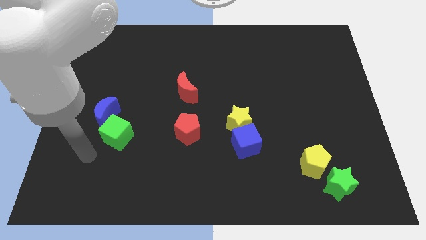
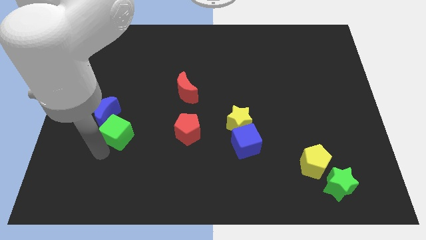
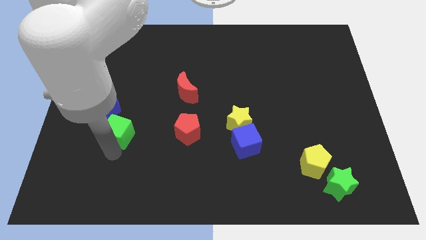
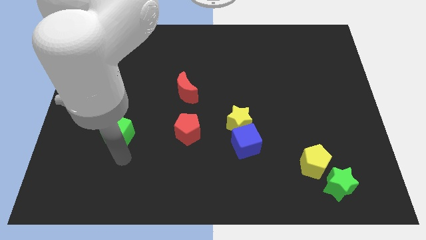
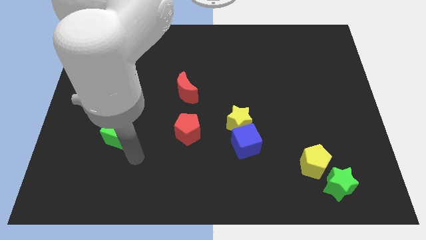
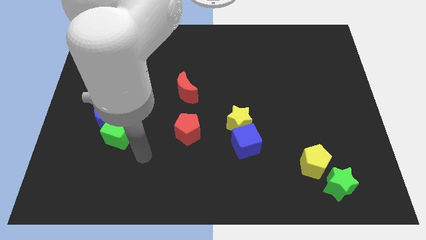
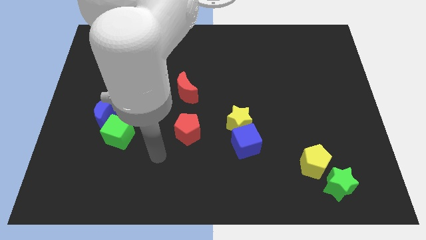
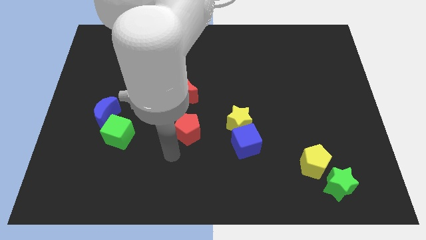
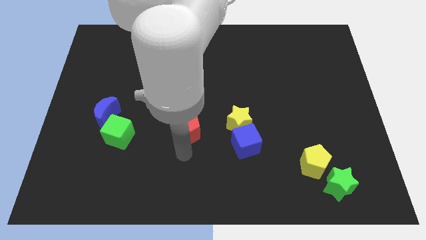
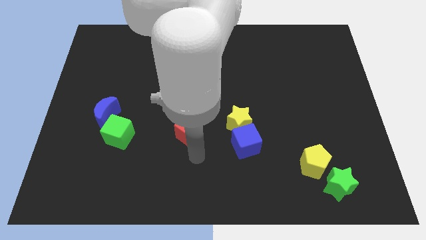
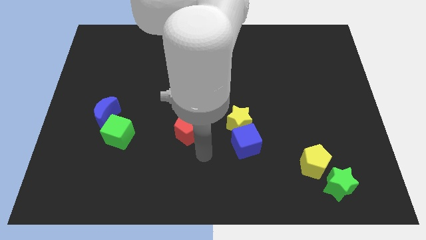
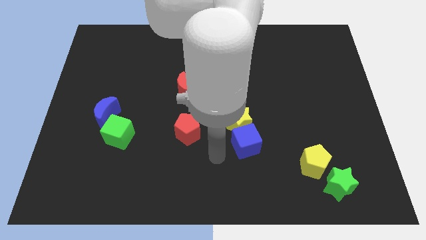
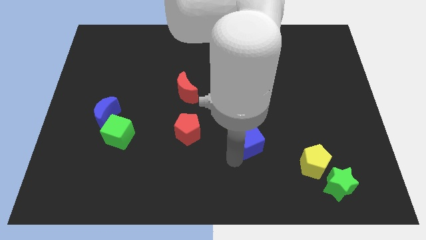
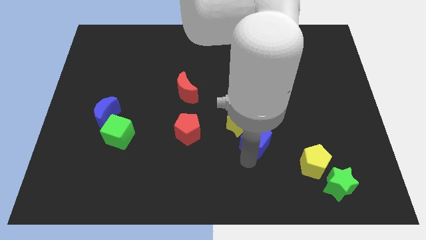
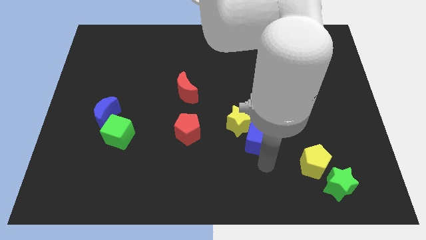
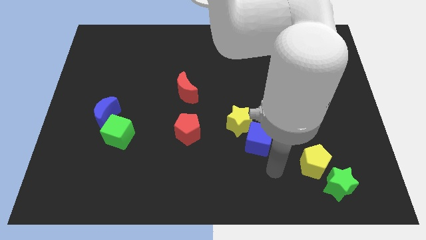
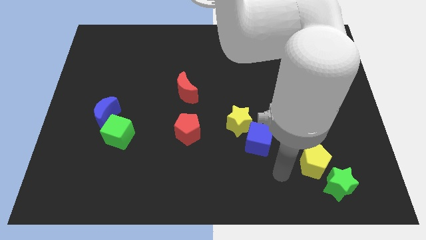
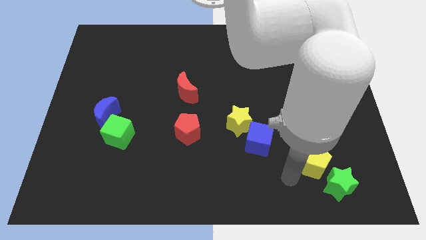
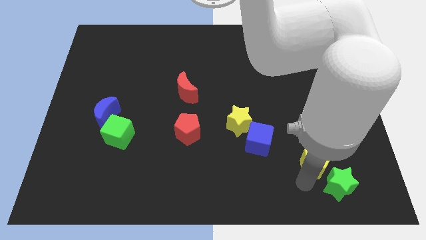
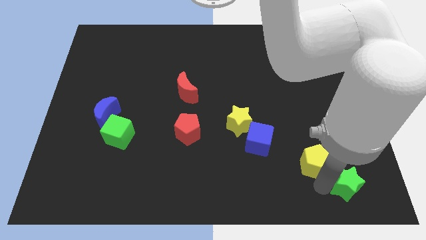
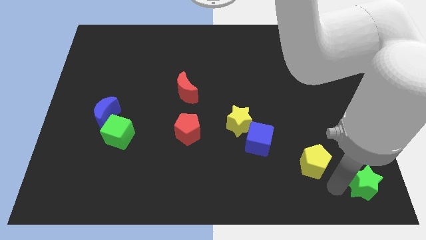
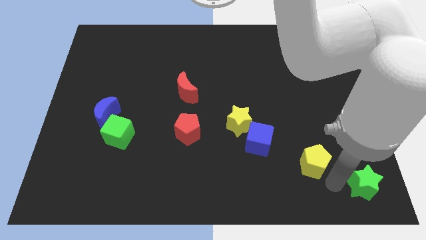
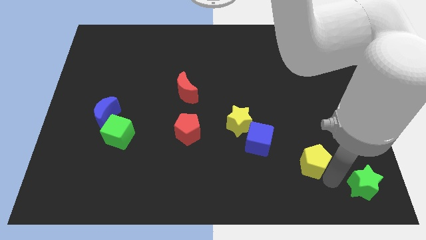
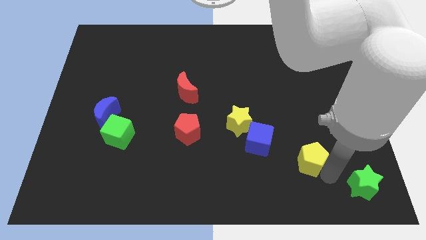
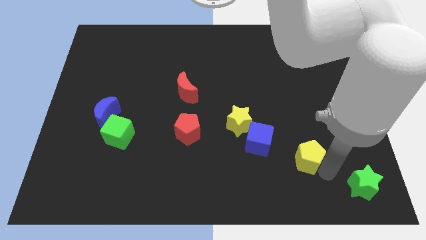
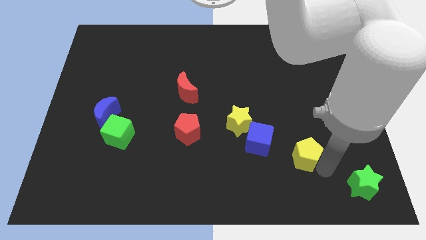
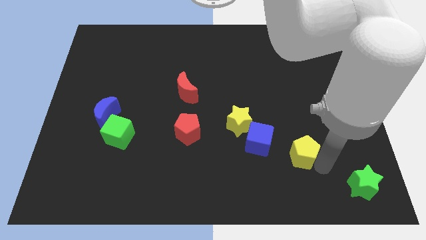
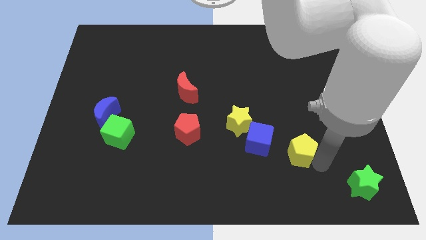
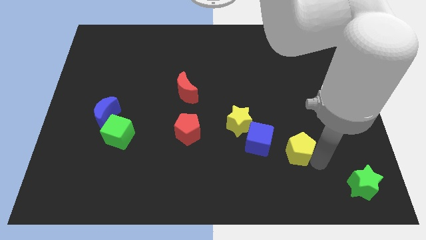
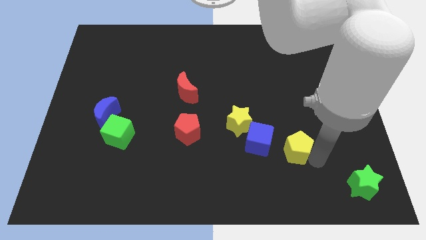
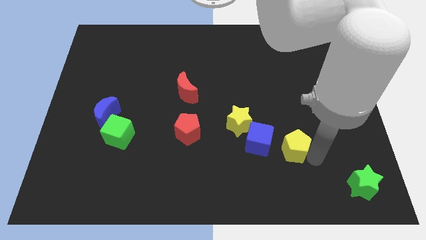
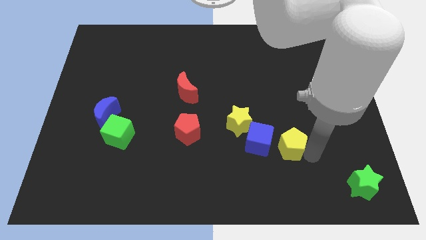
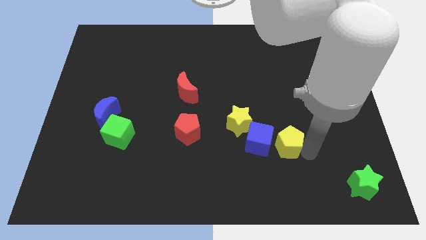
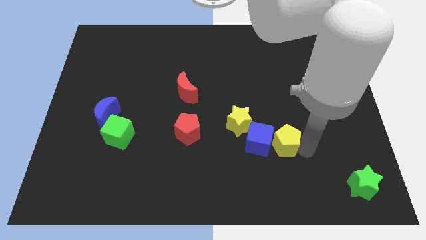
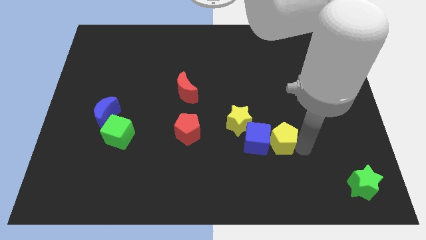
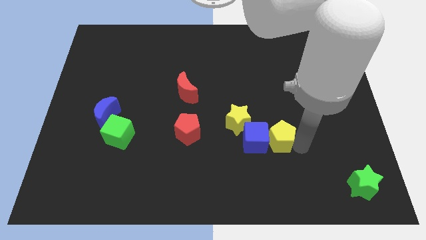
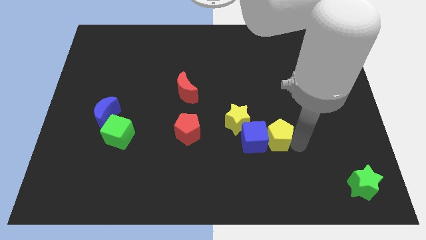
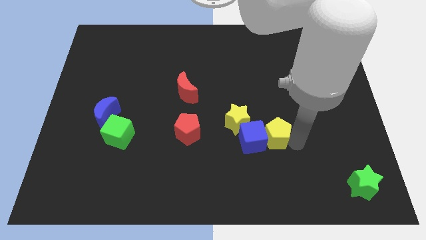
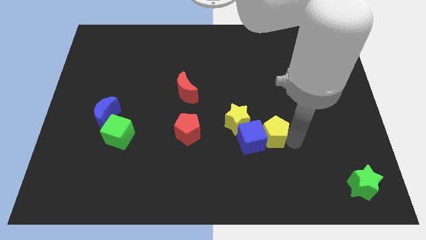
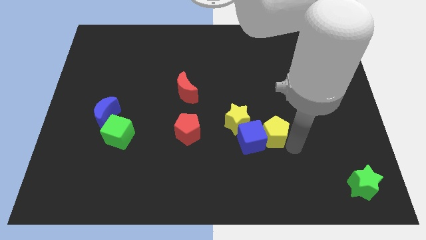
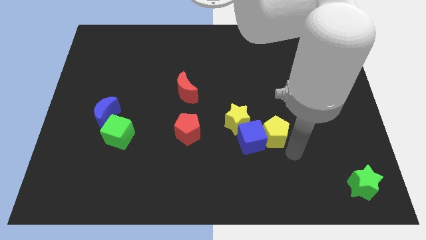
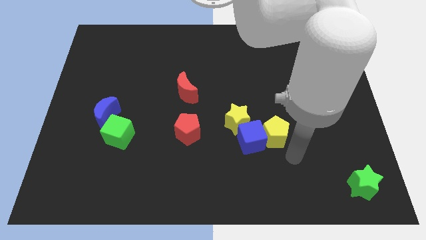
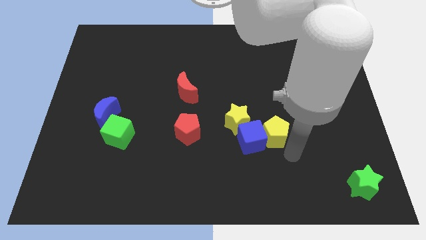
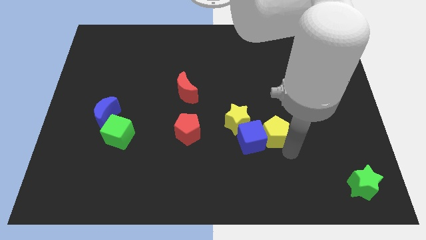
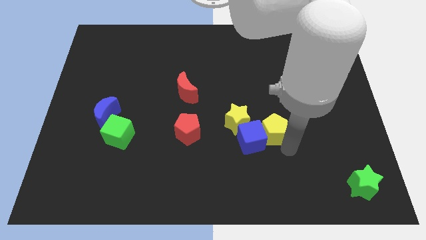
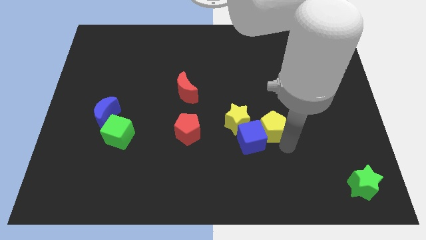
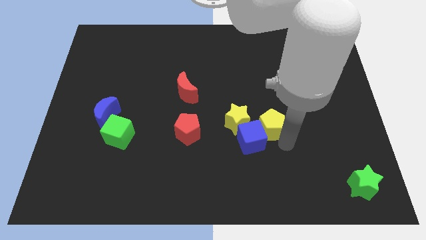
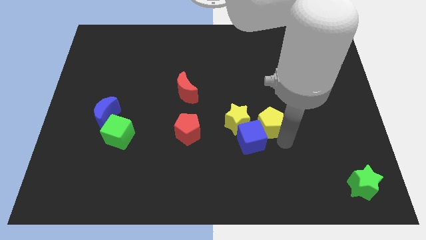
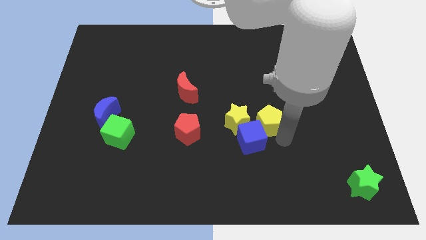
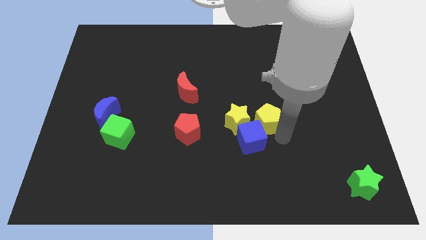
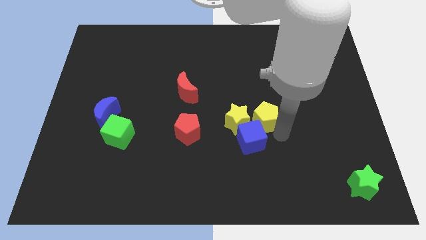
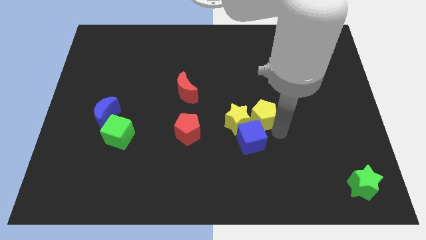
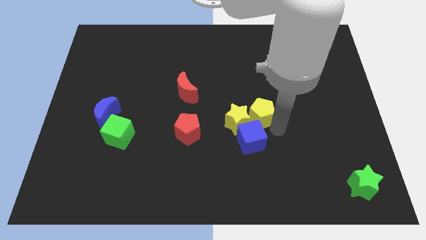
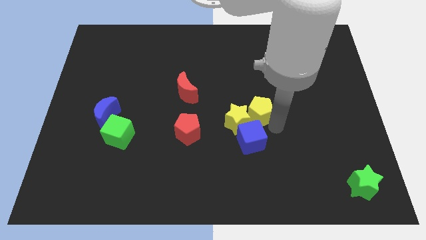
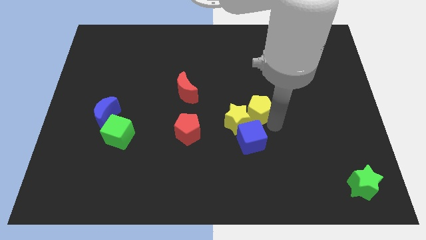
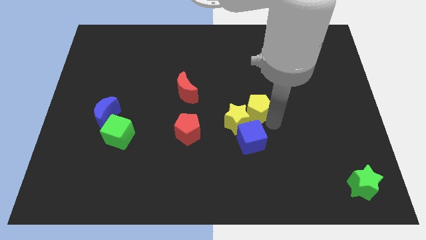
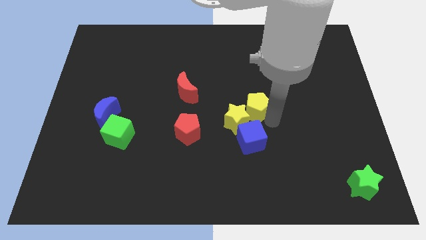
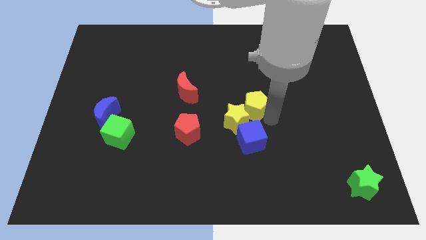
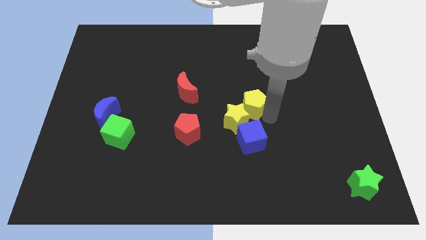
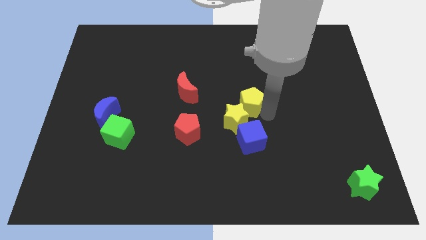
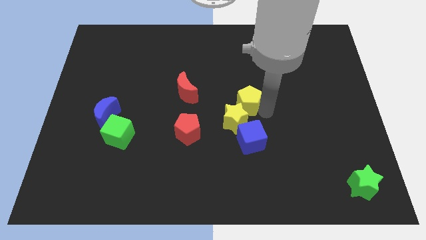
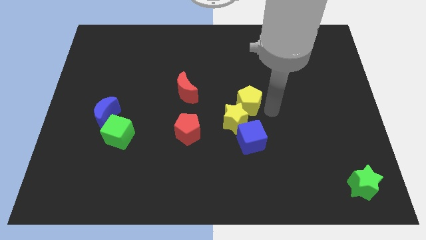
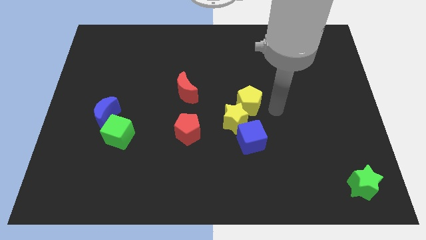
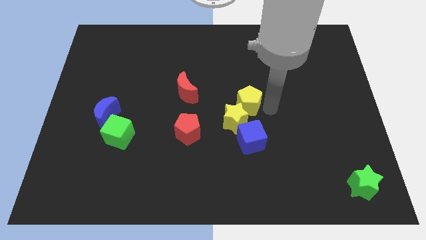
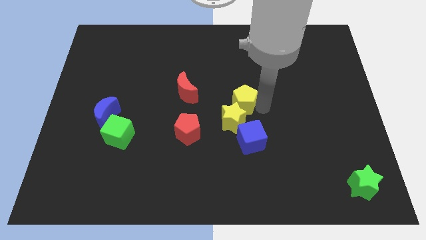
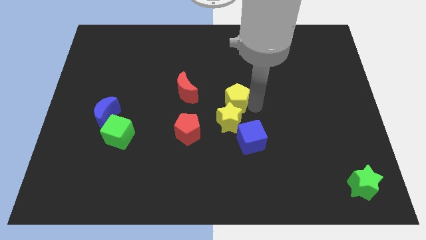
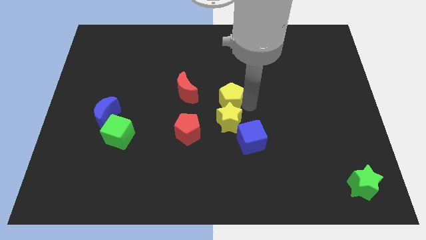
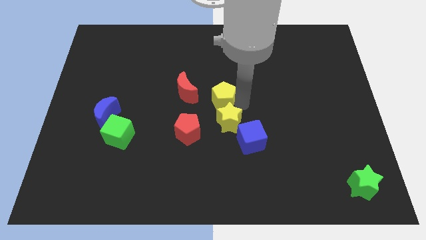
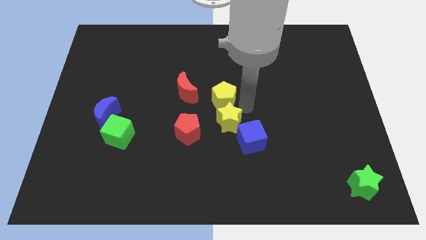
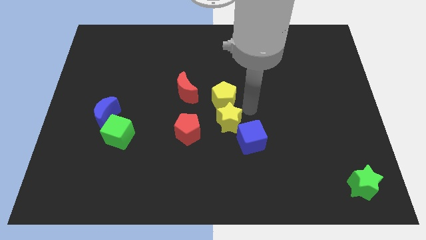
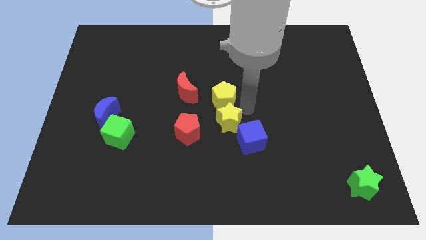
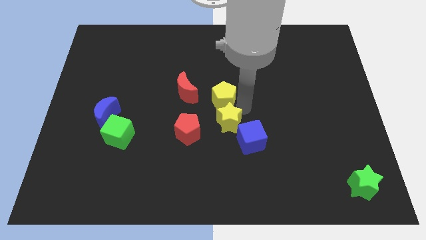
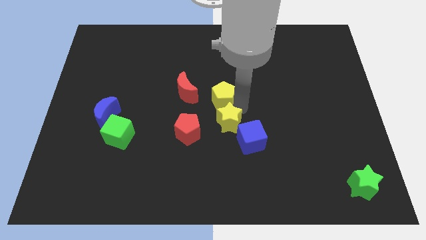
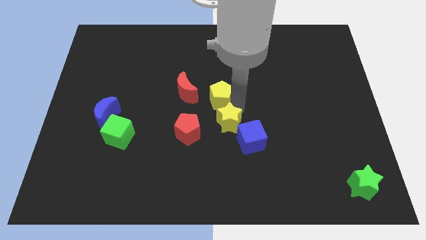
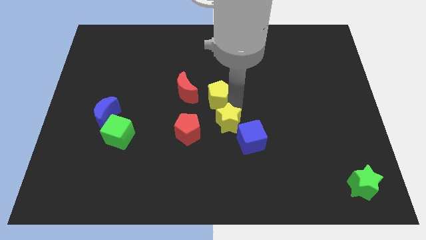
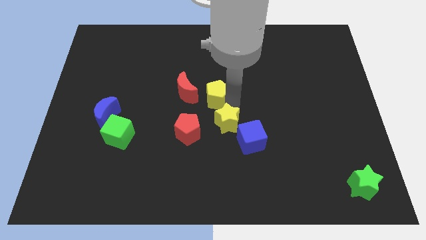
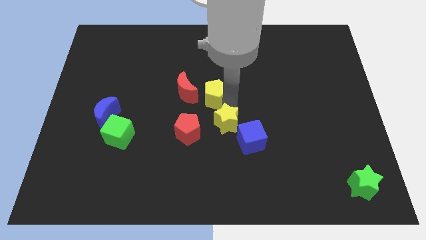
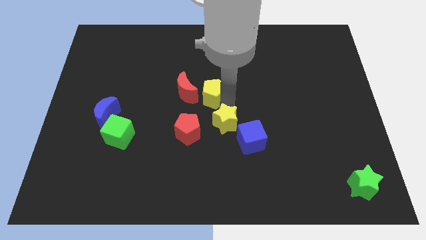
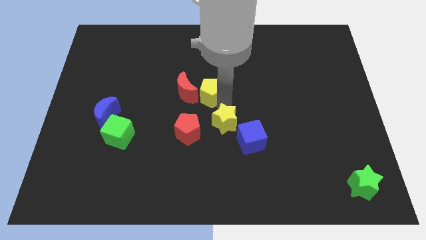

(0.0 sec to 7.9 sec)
slide the yellow pentagon to the red moon

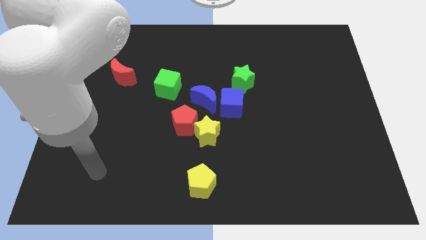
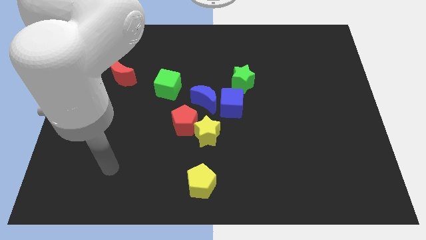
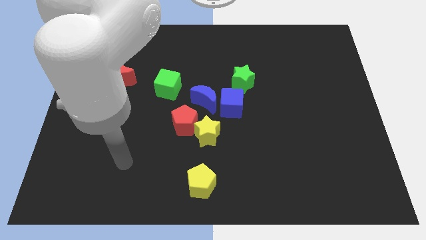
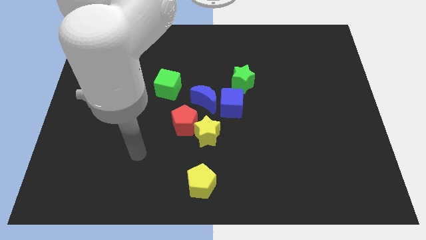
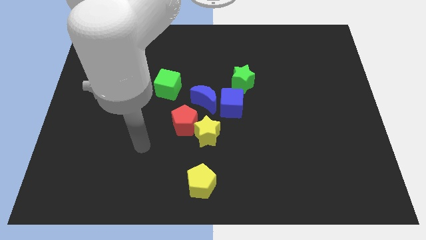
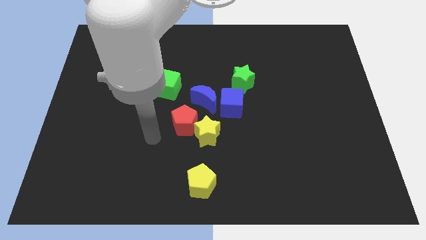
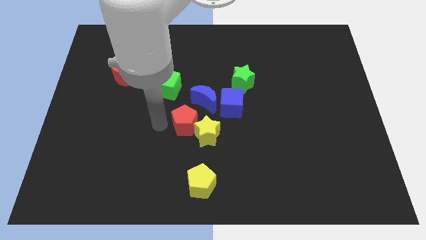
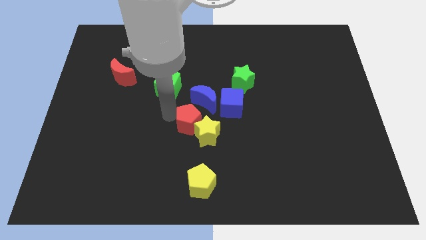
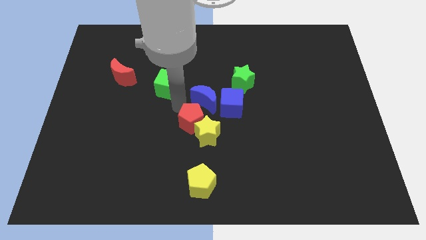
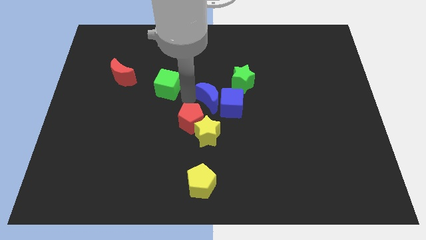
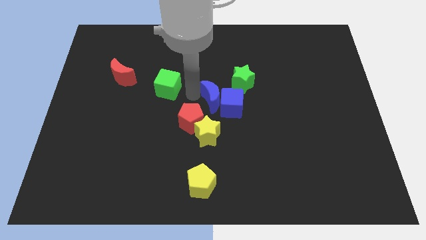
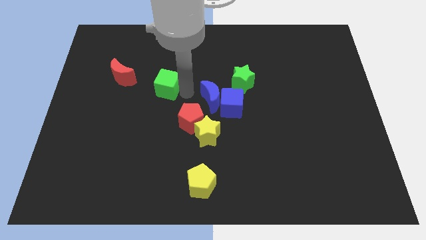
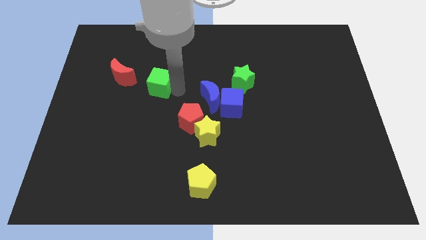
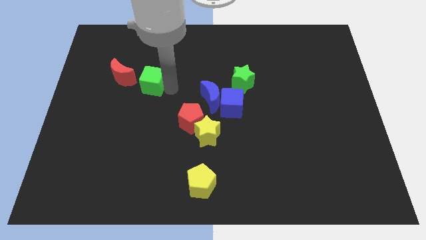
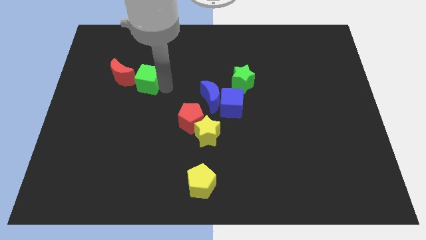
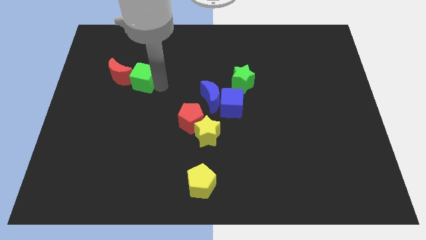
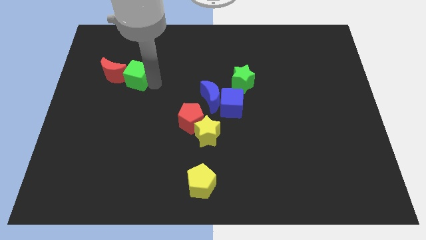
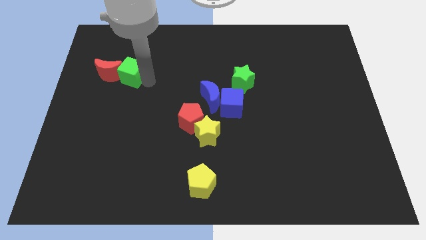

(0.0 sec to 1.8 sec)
move the green cube close to the red moon
